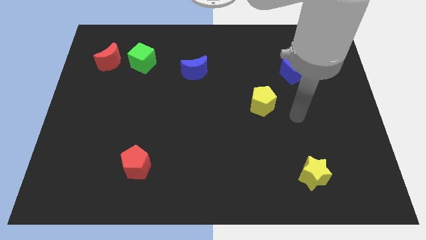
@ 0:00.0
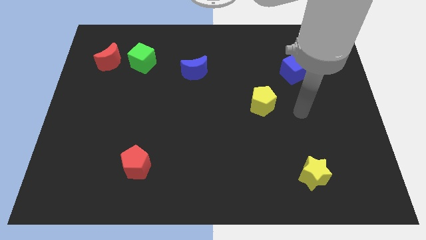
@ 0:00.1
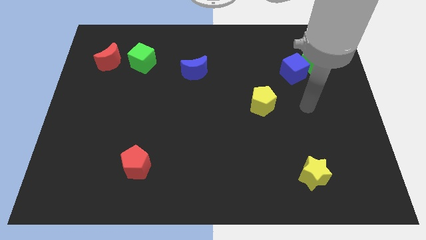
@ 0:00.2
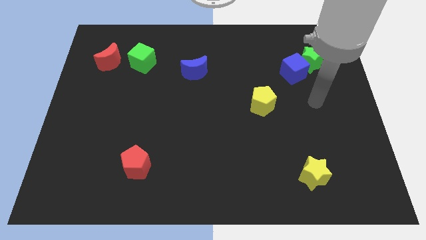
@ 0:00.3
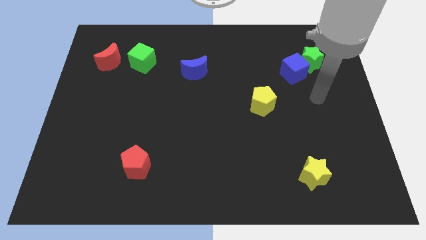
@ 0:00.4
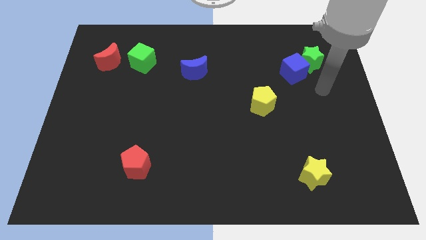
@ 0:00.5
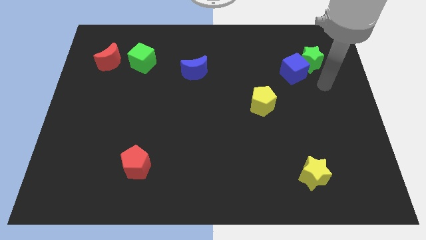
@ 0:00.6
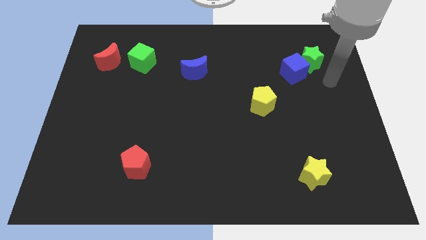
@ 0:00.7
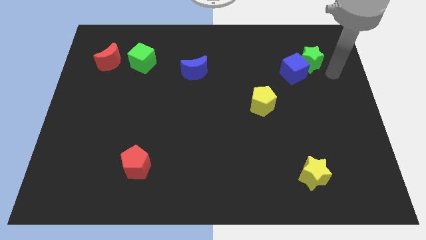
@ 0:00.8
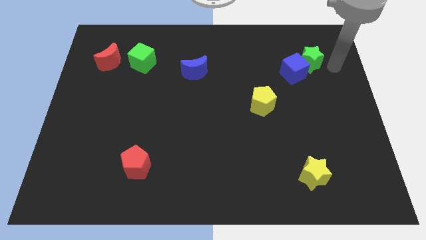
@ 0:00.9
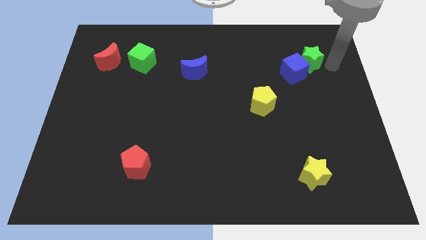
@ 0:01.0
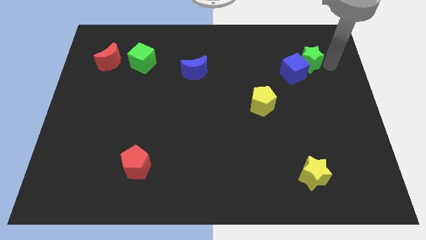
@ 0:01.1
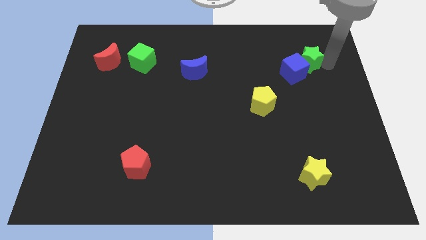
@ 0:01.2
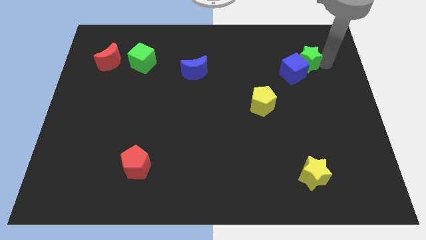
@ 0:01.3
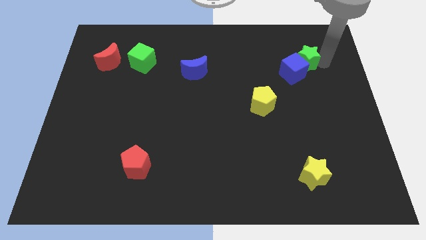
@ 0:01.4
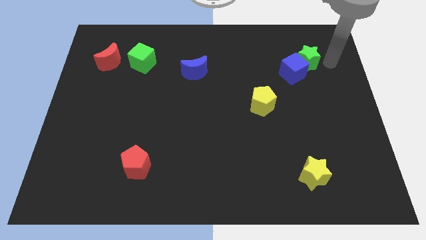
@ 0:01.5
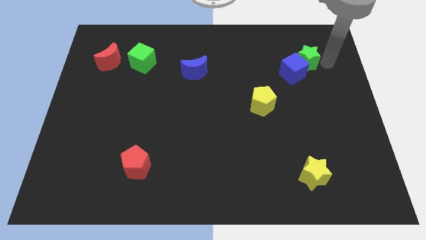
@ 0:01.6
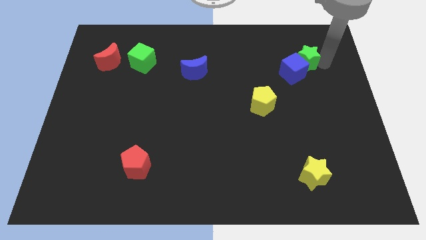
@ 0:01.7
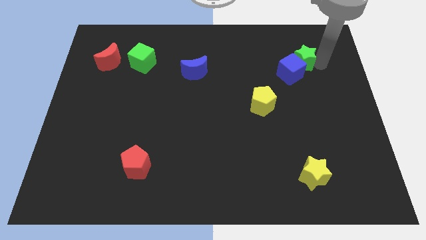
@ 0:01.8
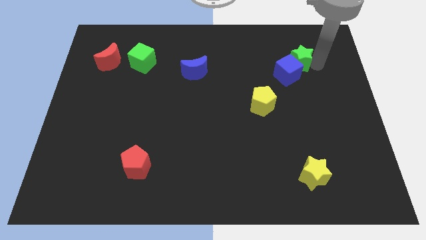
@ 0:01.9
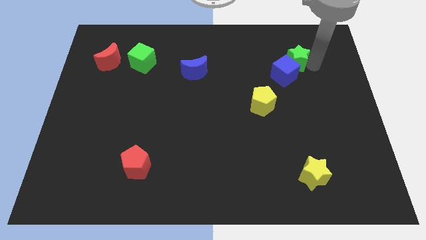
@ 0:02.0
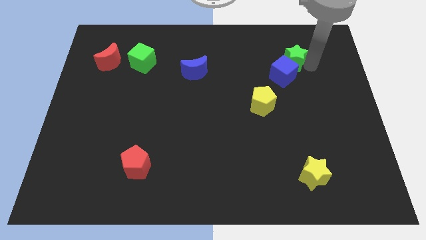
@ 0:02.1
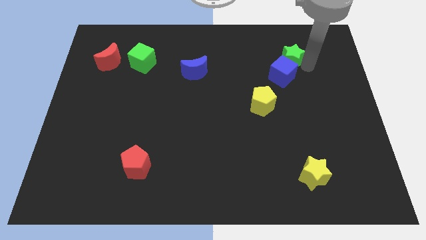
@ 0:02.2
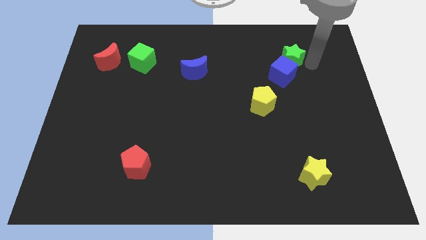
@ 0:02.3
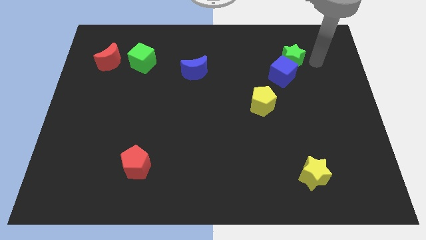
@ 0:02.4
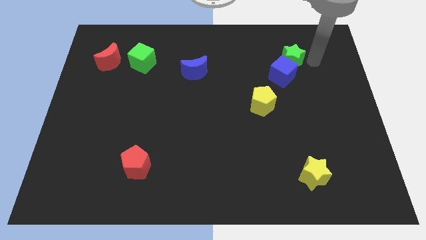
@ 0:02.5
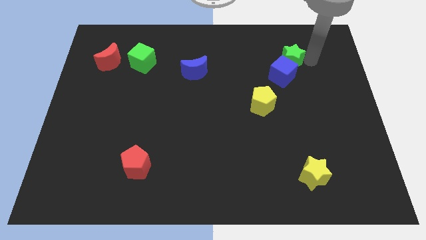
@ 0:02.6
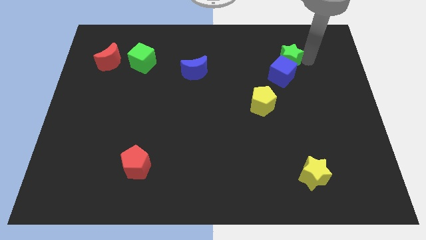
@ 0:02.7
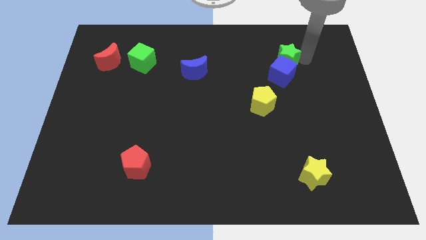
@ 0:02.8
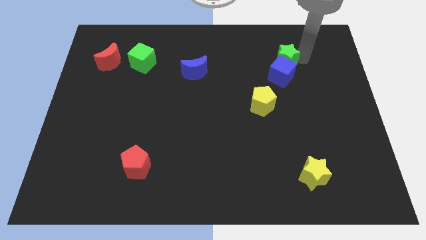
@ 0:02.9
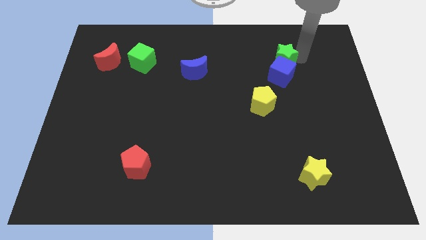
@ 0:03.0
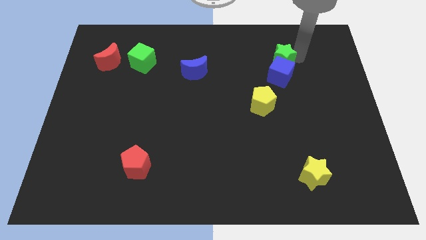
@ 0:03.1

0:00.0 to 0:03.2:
slightly push the green star to the left

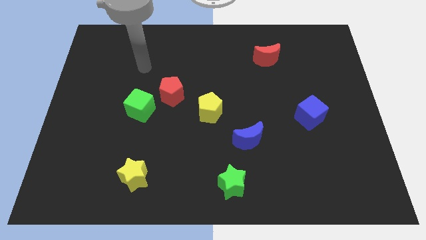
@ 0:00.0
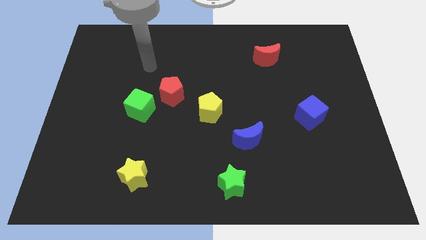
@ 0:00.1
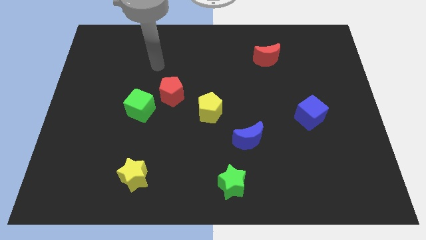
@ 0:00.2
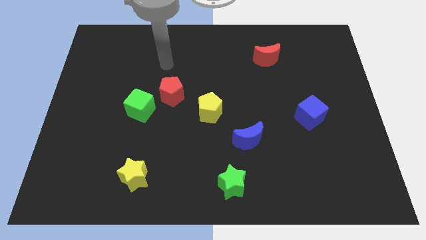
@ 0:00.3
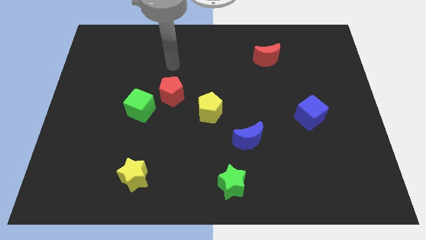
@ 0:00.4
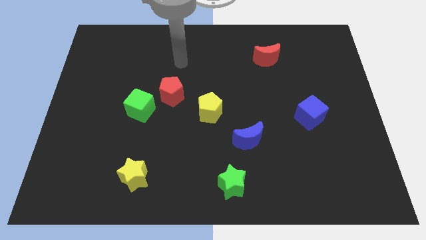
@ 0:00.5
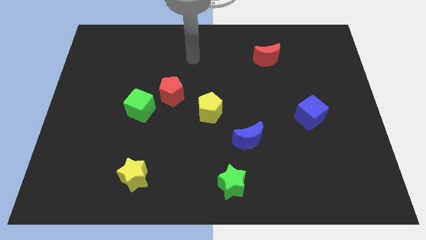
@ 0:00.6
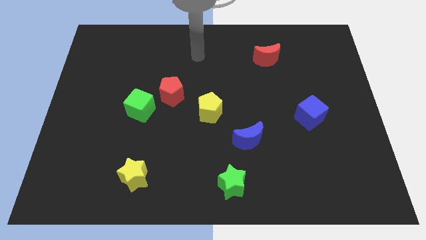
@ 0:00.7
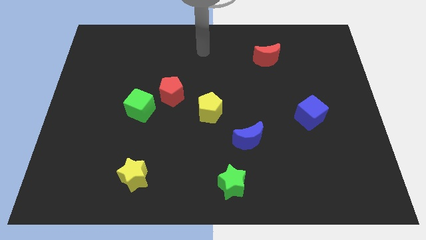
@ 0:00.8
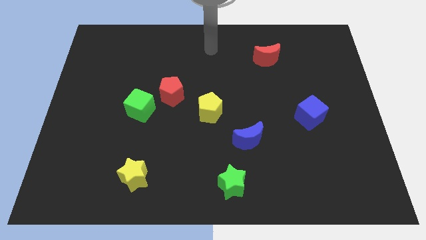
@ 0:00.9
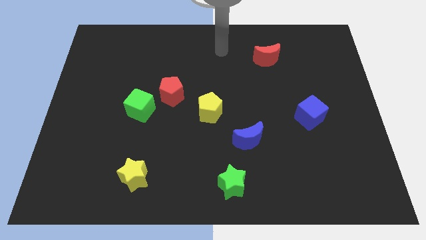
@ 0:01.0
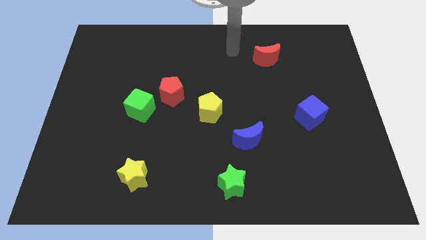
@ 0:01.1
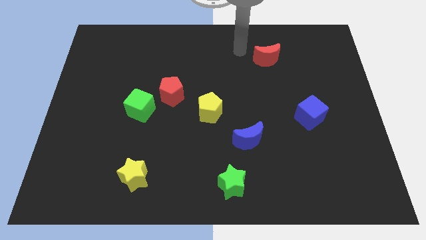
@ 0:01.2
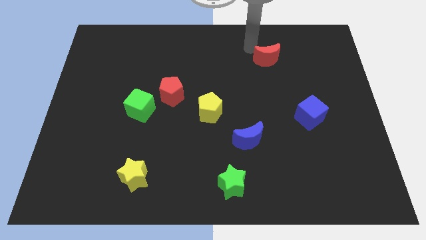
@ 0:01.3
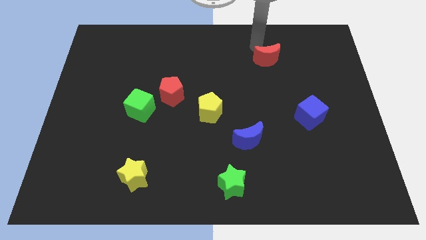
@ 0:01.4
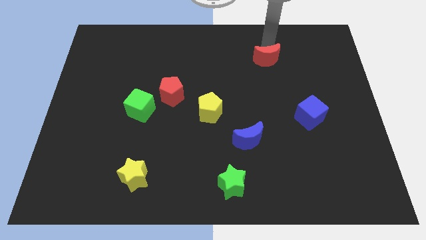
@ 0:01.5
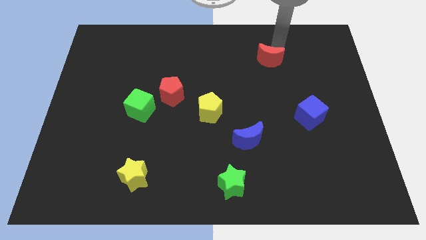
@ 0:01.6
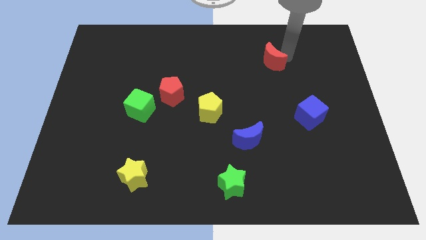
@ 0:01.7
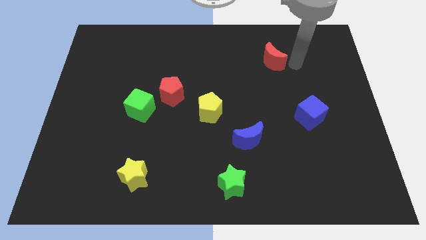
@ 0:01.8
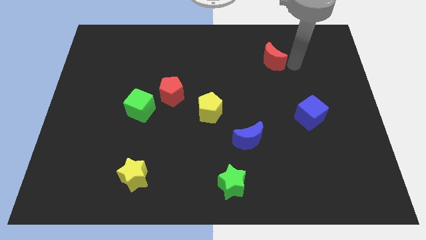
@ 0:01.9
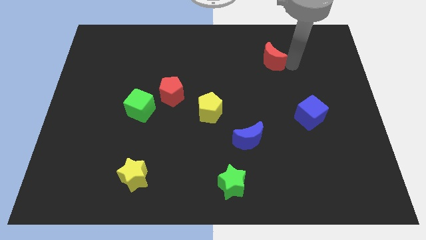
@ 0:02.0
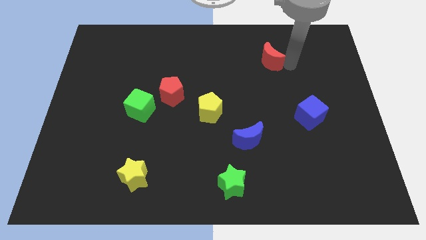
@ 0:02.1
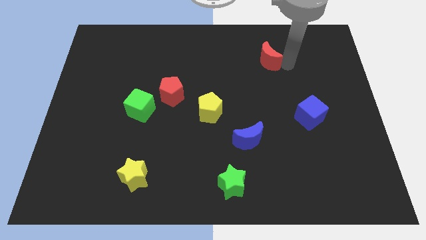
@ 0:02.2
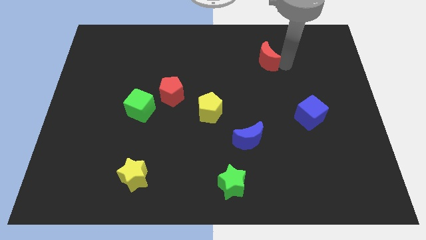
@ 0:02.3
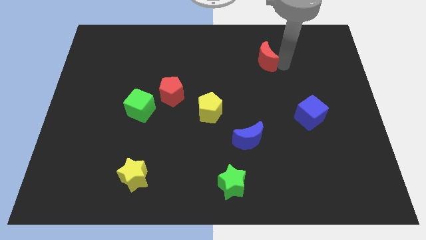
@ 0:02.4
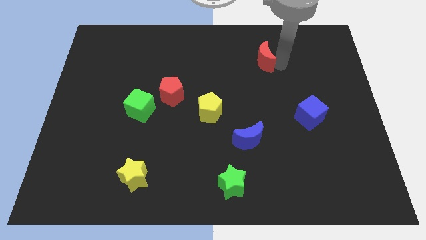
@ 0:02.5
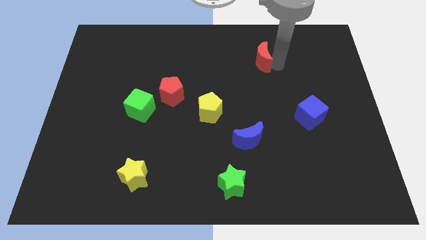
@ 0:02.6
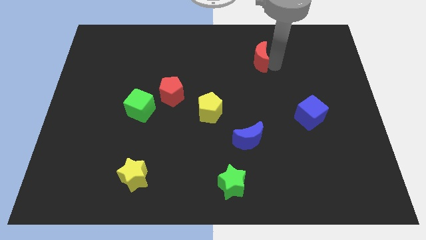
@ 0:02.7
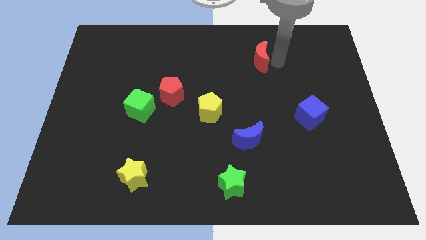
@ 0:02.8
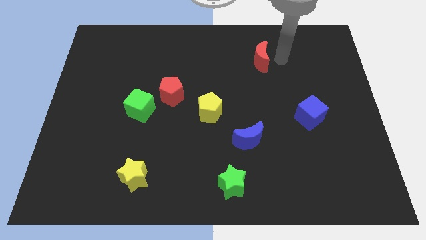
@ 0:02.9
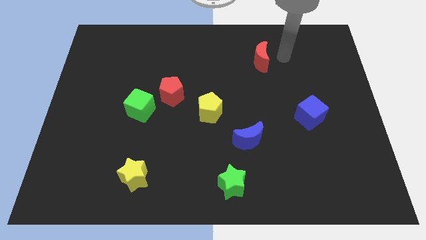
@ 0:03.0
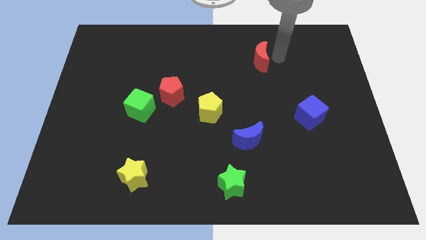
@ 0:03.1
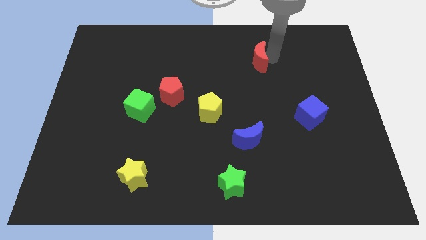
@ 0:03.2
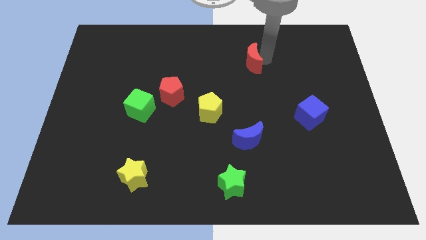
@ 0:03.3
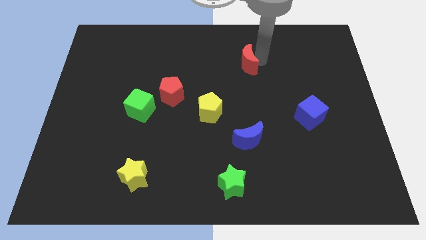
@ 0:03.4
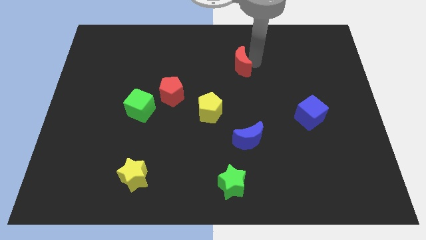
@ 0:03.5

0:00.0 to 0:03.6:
move the red moon to the left a little

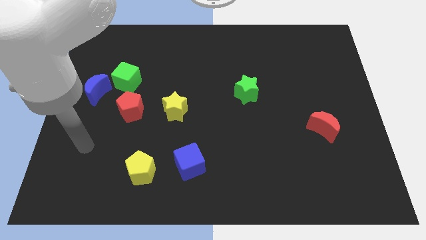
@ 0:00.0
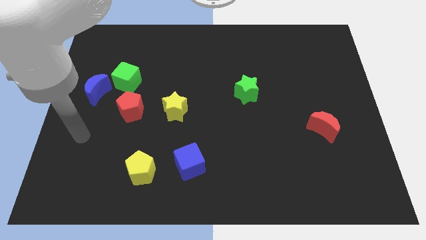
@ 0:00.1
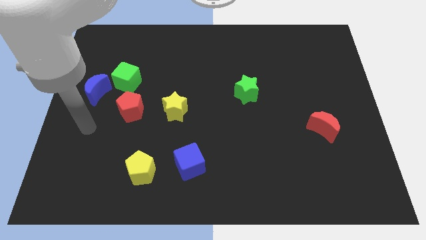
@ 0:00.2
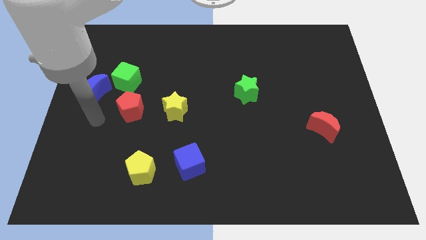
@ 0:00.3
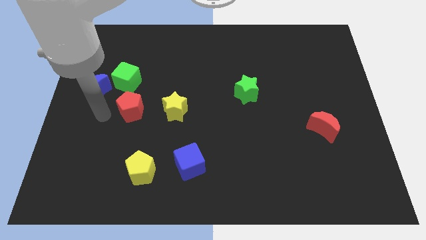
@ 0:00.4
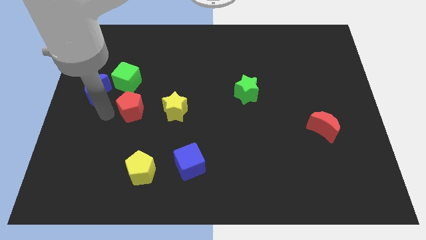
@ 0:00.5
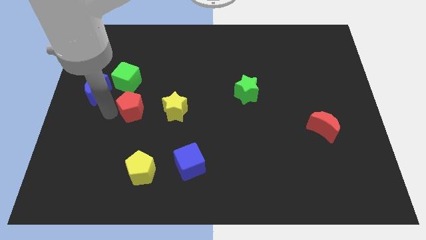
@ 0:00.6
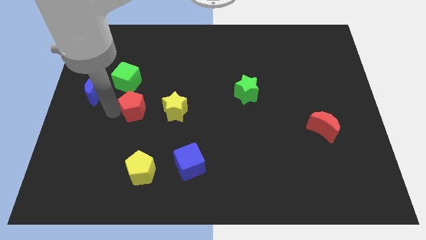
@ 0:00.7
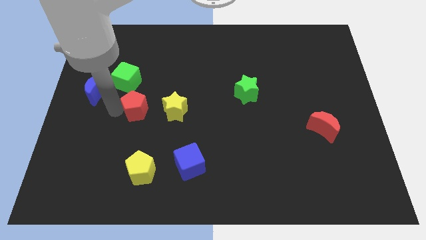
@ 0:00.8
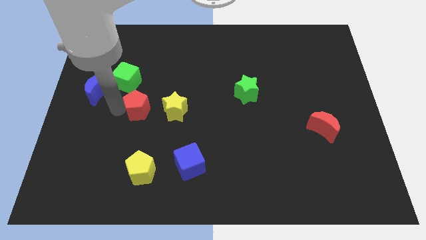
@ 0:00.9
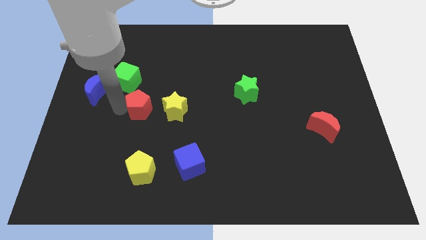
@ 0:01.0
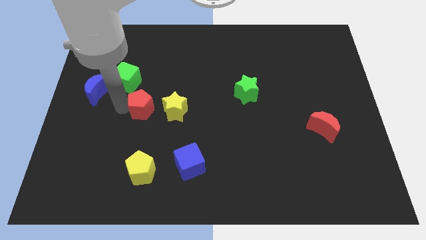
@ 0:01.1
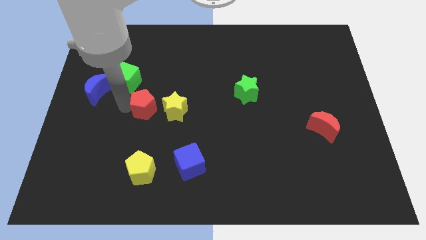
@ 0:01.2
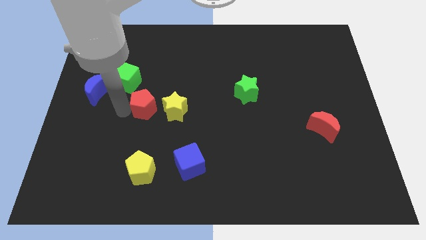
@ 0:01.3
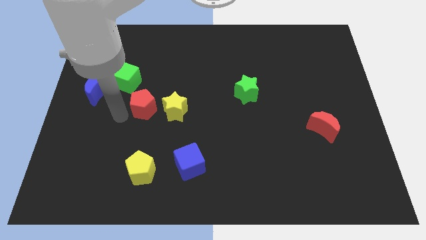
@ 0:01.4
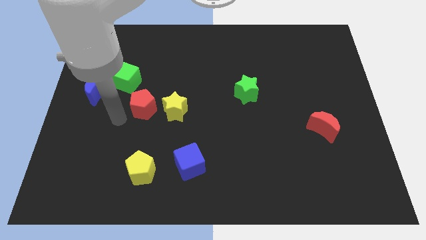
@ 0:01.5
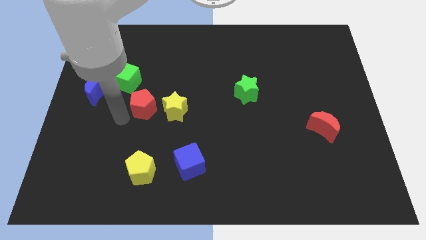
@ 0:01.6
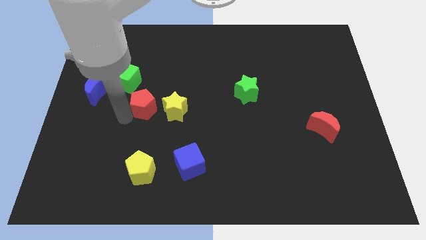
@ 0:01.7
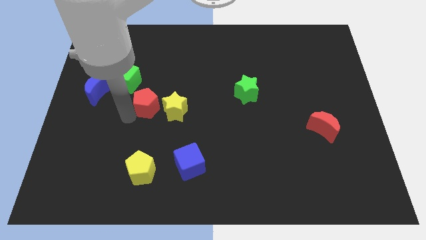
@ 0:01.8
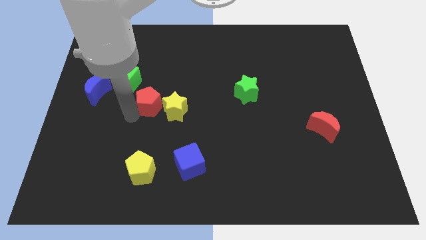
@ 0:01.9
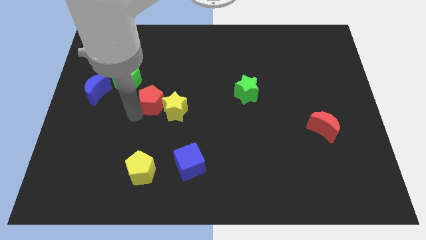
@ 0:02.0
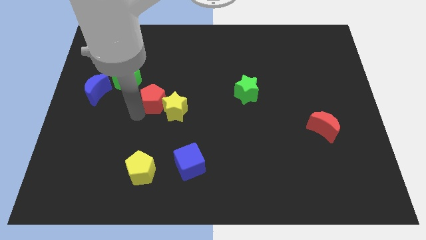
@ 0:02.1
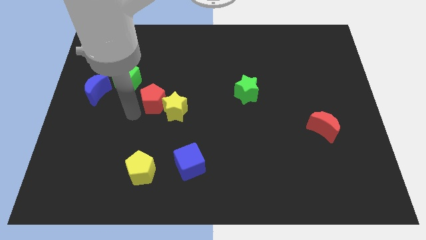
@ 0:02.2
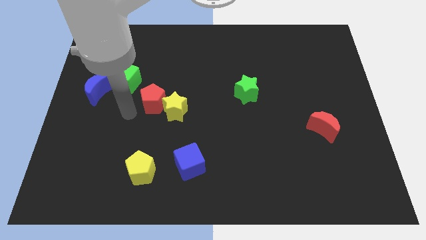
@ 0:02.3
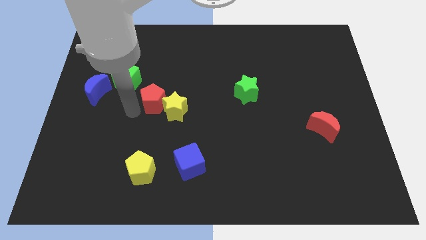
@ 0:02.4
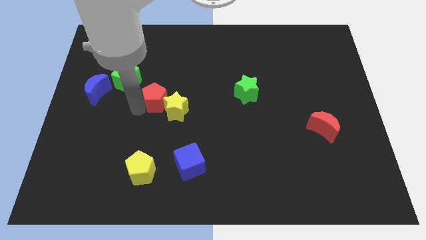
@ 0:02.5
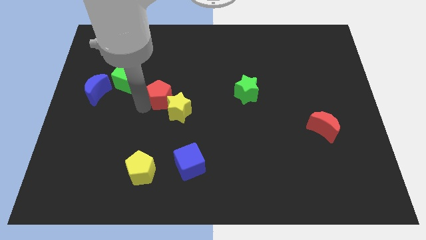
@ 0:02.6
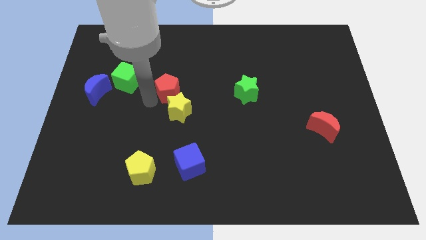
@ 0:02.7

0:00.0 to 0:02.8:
slightly push the red pentagon to the right
